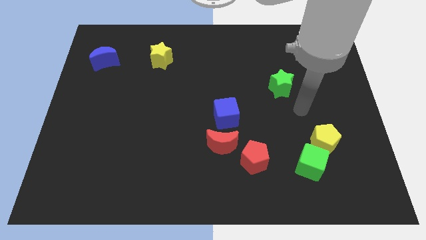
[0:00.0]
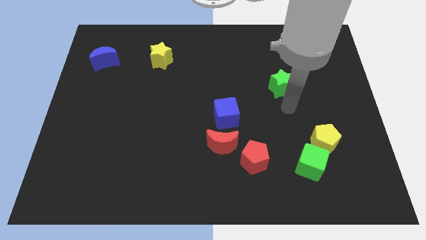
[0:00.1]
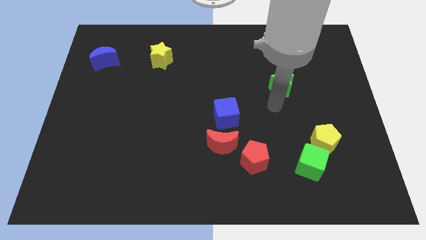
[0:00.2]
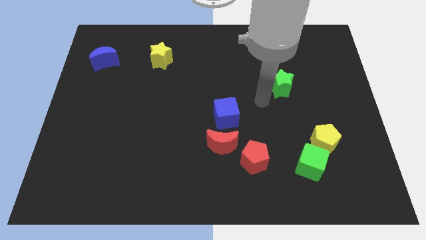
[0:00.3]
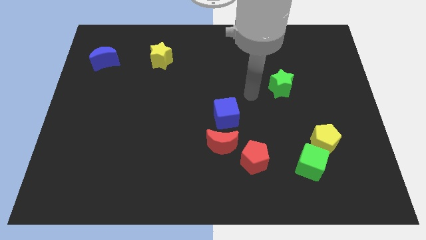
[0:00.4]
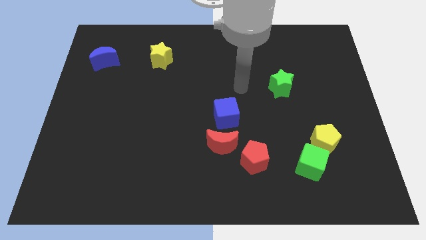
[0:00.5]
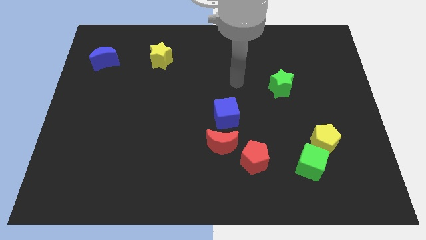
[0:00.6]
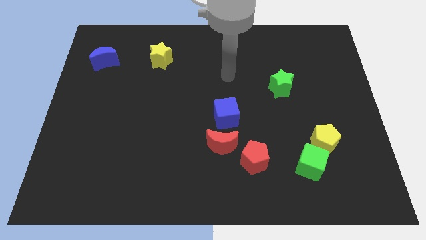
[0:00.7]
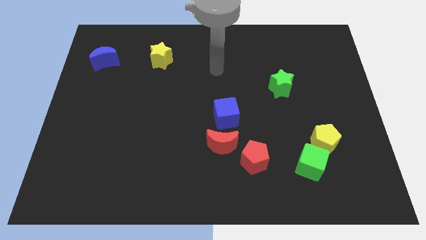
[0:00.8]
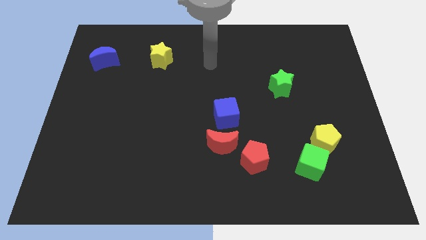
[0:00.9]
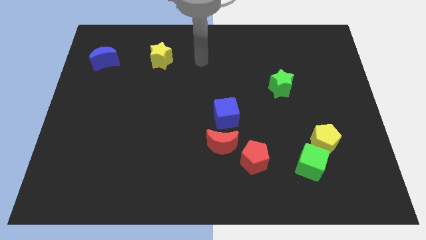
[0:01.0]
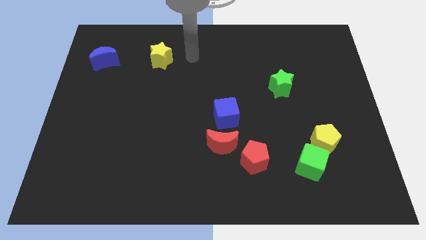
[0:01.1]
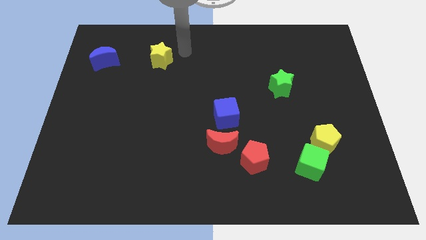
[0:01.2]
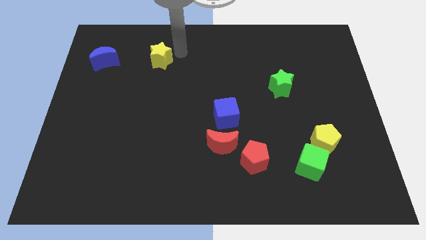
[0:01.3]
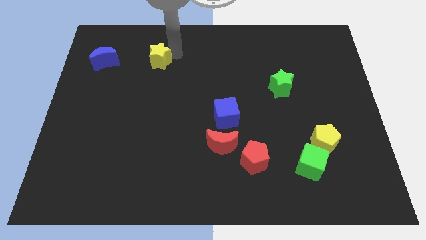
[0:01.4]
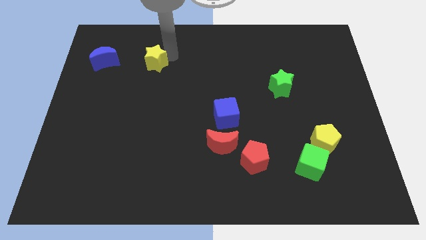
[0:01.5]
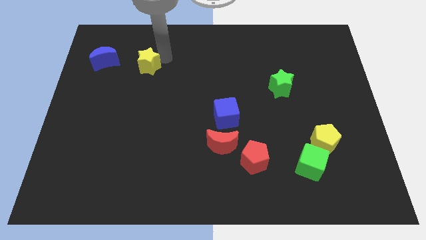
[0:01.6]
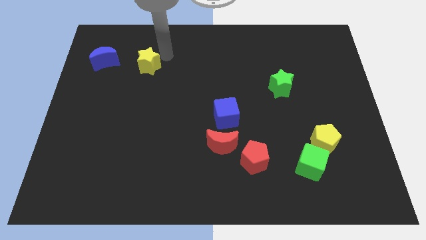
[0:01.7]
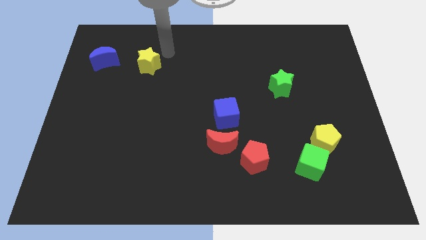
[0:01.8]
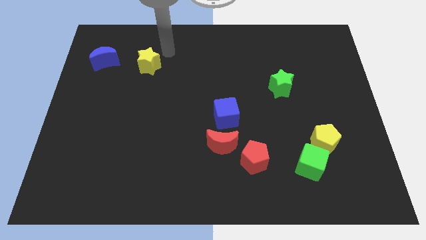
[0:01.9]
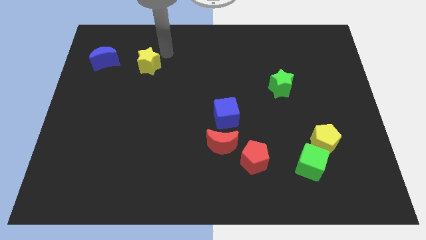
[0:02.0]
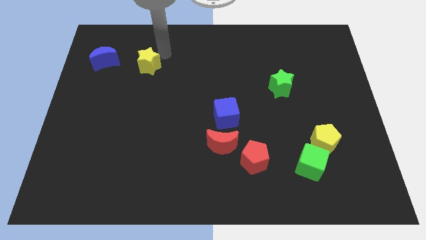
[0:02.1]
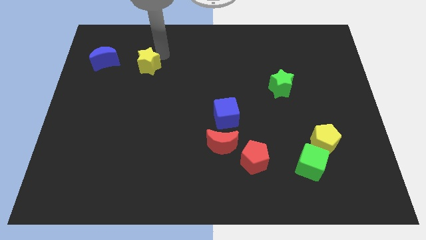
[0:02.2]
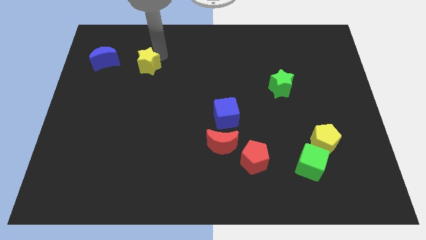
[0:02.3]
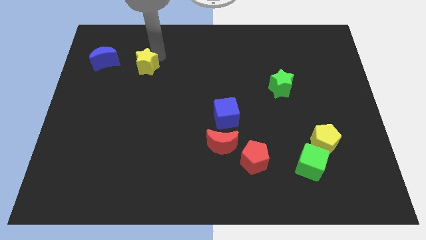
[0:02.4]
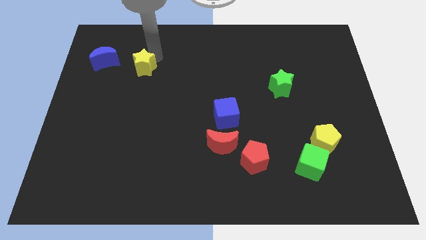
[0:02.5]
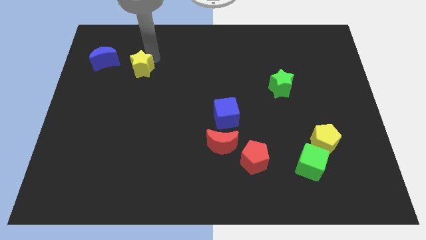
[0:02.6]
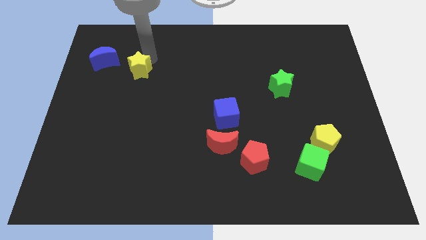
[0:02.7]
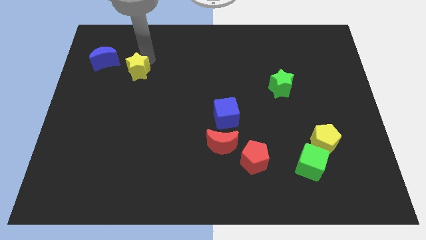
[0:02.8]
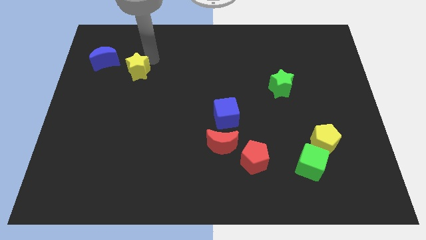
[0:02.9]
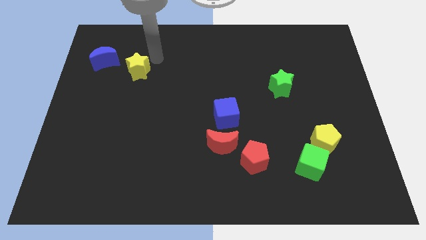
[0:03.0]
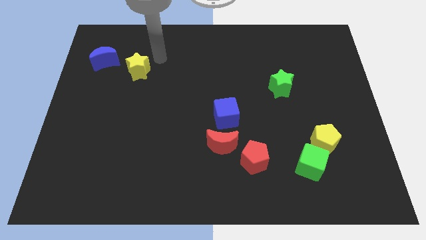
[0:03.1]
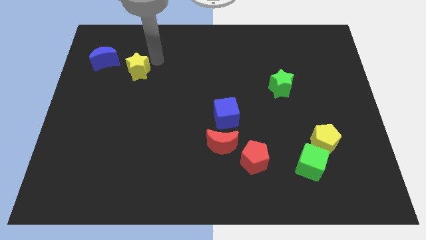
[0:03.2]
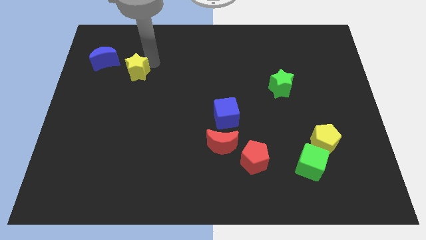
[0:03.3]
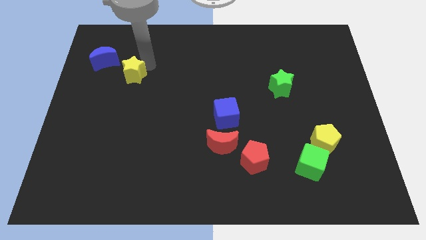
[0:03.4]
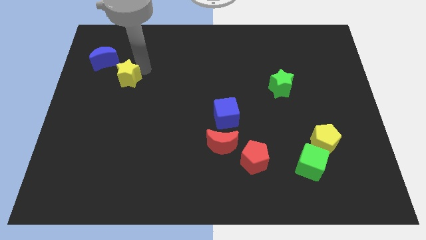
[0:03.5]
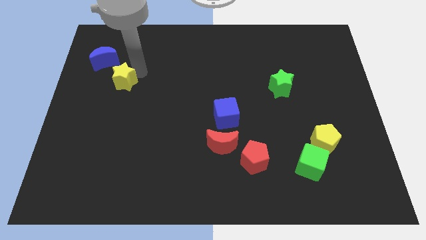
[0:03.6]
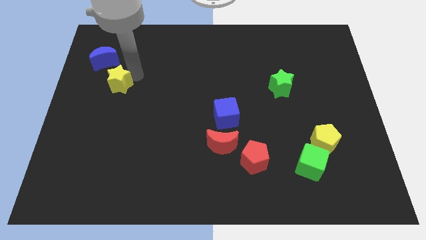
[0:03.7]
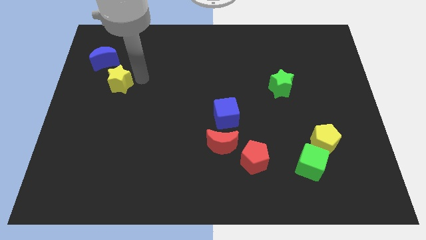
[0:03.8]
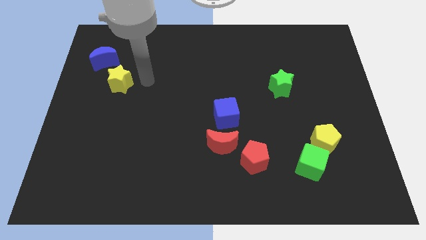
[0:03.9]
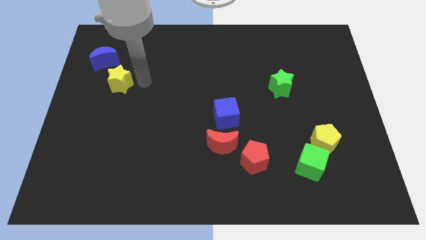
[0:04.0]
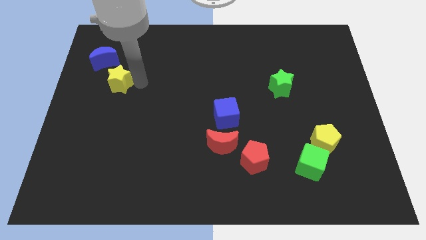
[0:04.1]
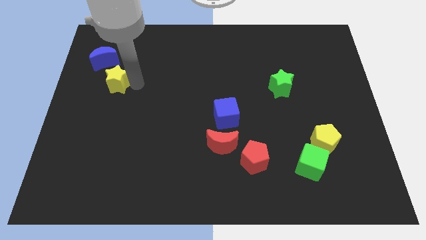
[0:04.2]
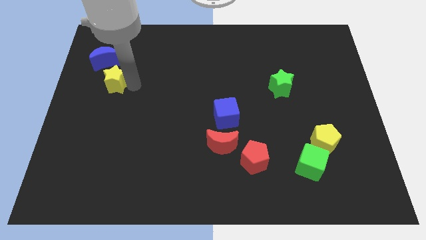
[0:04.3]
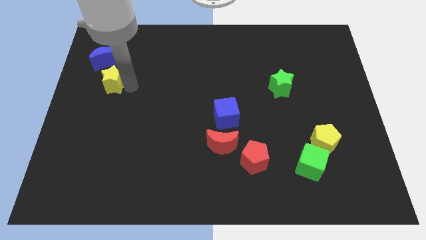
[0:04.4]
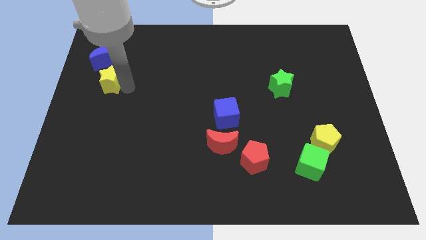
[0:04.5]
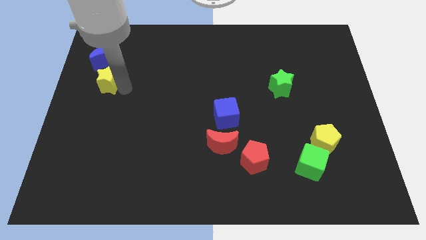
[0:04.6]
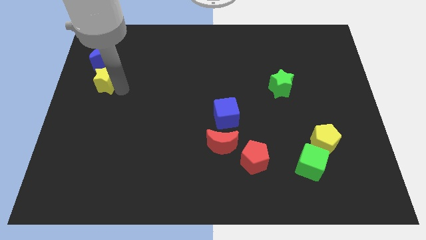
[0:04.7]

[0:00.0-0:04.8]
slide the yellow star to the center left

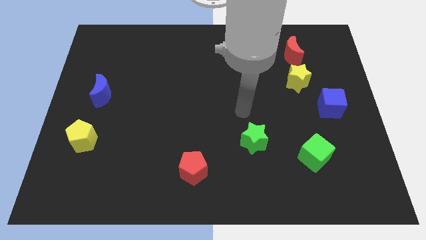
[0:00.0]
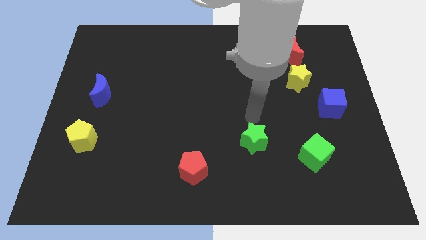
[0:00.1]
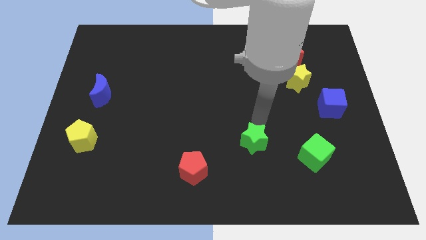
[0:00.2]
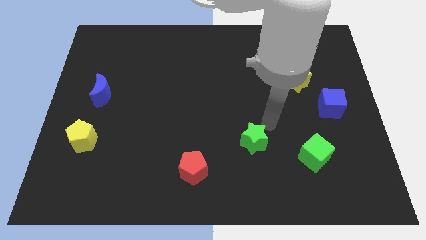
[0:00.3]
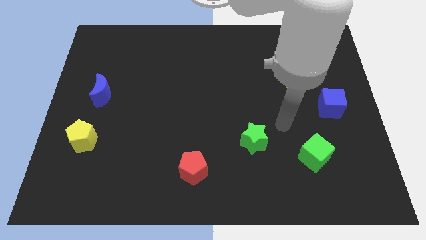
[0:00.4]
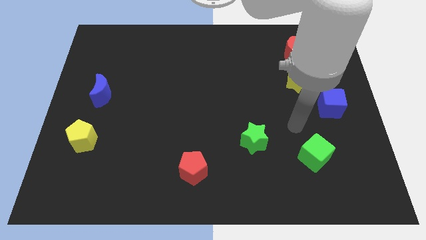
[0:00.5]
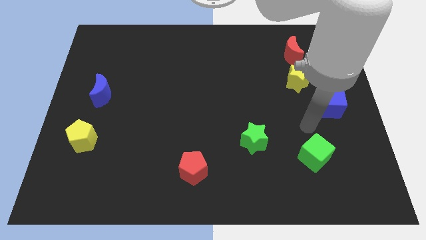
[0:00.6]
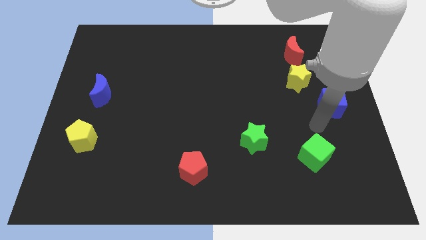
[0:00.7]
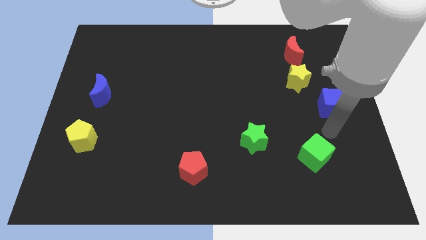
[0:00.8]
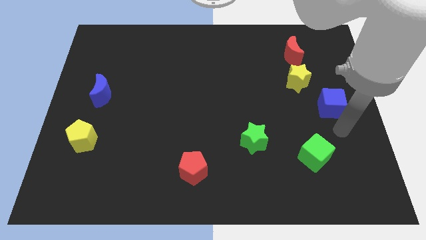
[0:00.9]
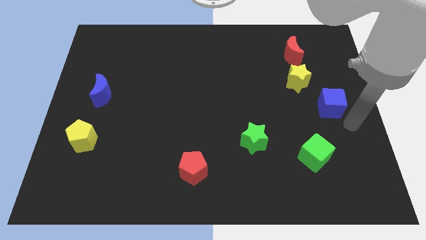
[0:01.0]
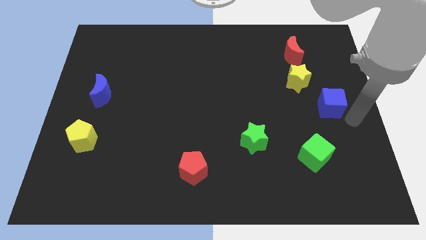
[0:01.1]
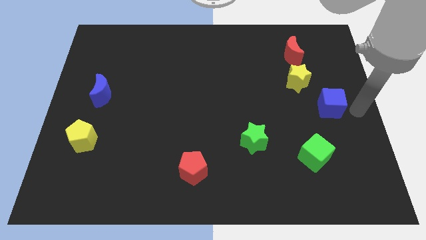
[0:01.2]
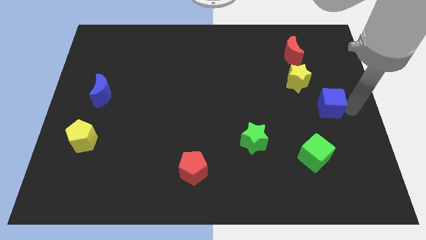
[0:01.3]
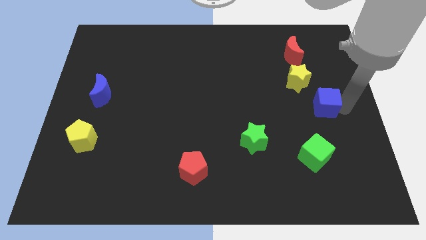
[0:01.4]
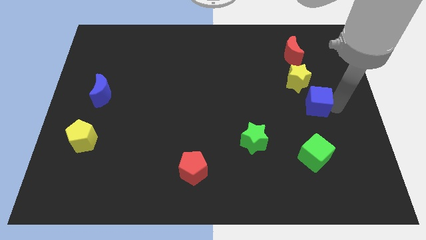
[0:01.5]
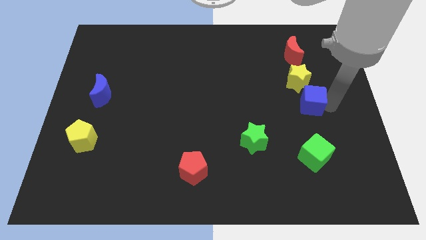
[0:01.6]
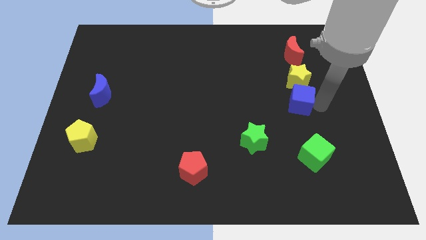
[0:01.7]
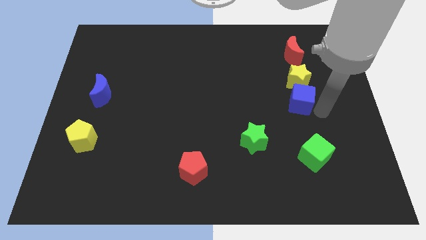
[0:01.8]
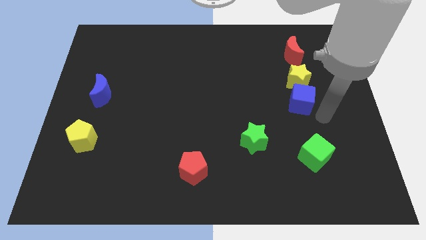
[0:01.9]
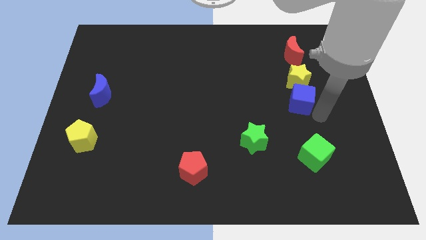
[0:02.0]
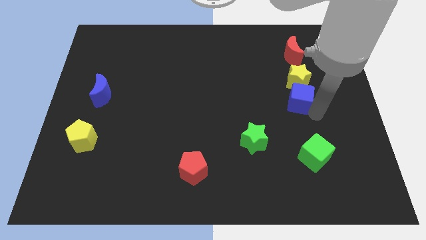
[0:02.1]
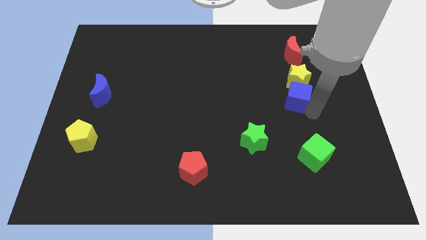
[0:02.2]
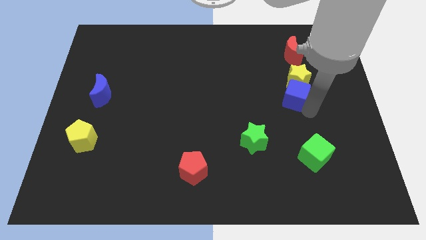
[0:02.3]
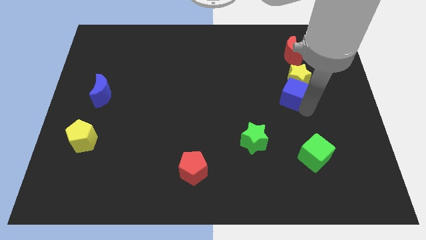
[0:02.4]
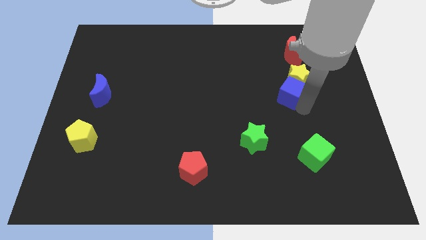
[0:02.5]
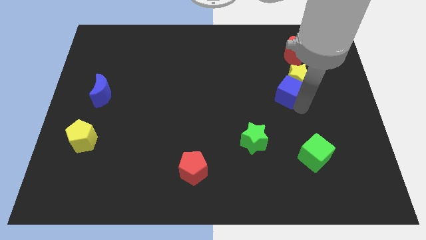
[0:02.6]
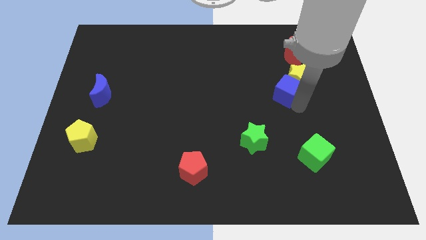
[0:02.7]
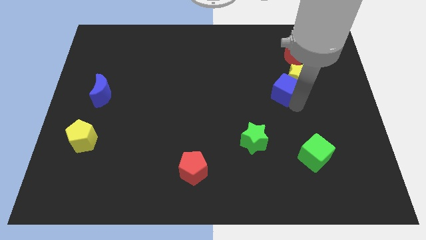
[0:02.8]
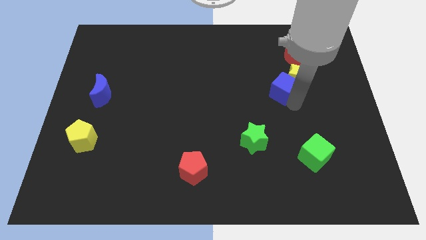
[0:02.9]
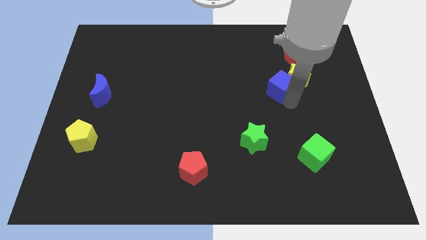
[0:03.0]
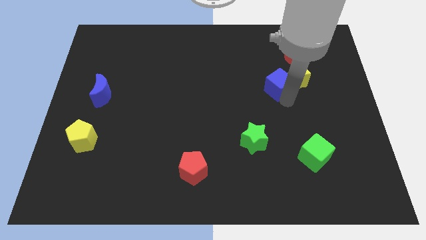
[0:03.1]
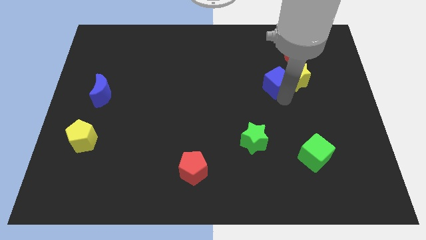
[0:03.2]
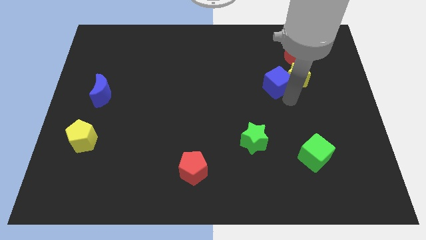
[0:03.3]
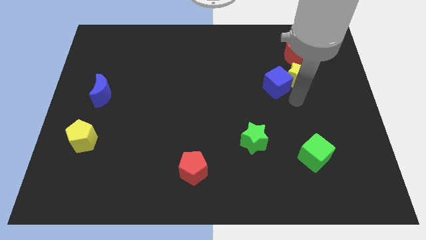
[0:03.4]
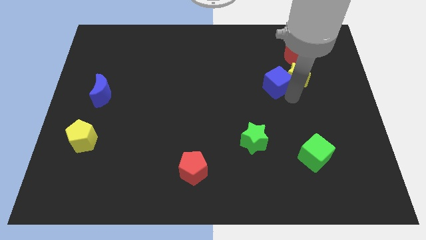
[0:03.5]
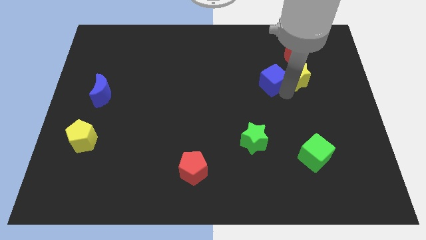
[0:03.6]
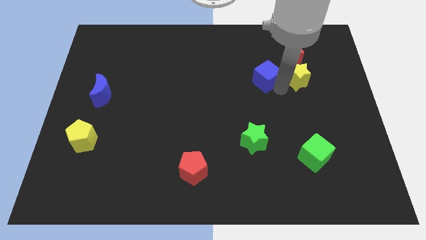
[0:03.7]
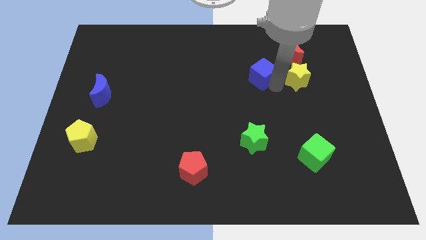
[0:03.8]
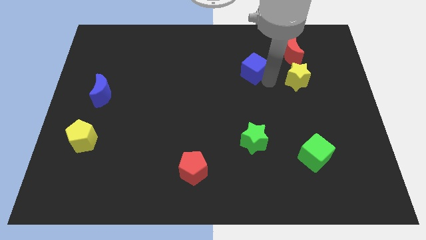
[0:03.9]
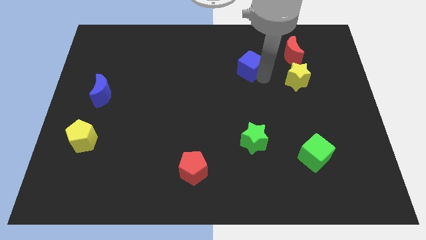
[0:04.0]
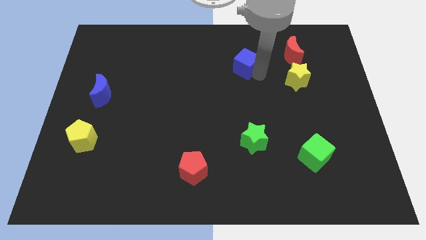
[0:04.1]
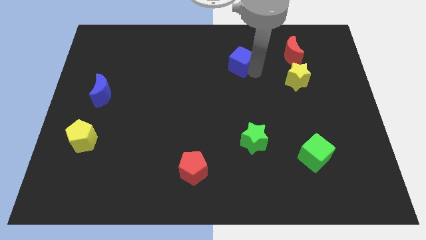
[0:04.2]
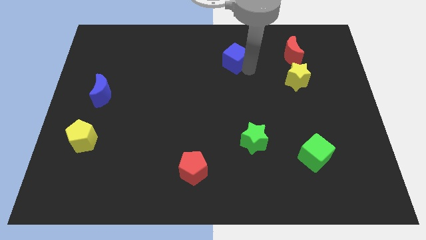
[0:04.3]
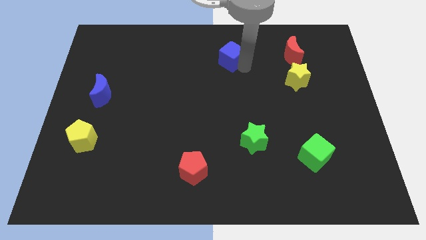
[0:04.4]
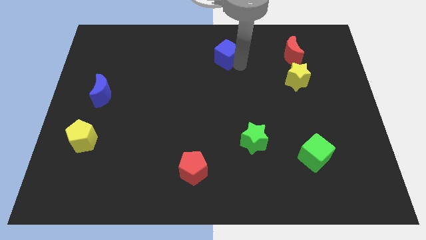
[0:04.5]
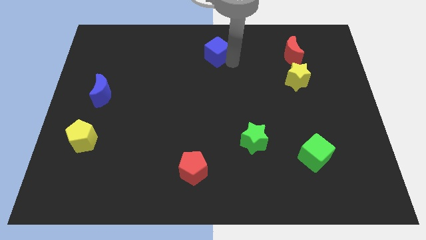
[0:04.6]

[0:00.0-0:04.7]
move the blue cube to the towards your base
